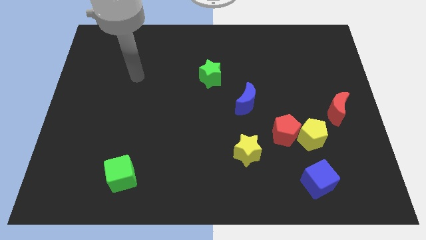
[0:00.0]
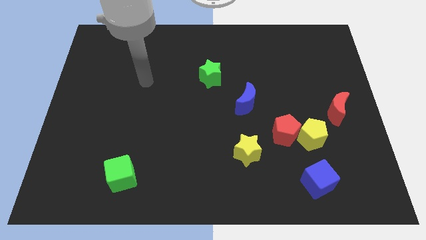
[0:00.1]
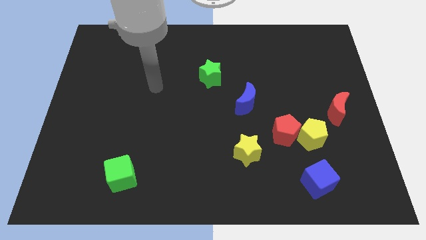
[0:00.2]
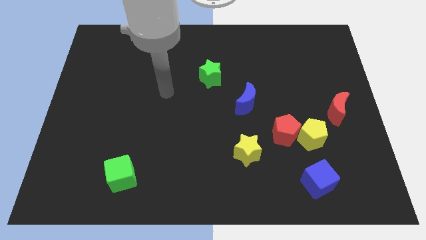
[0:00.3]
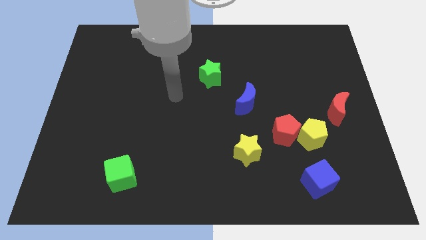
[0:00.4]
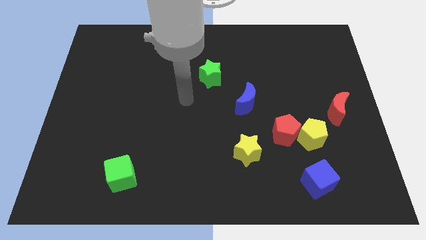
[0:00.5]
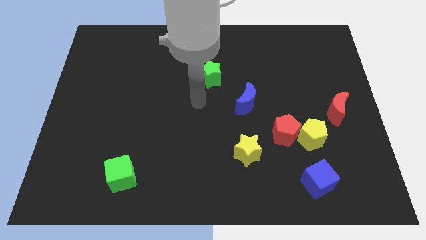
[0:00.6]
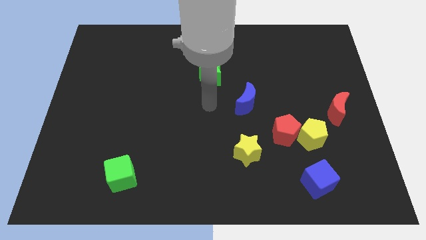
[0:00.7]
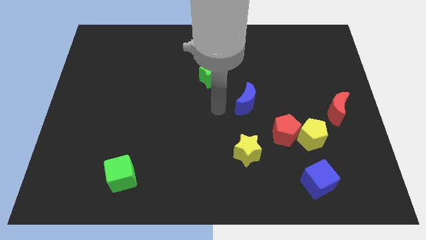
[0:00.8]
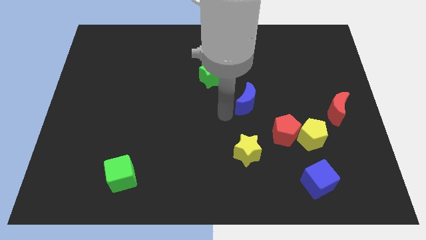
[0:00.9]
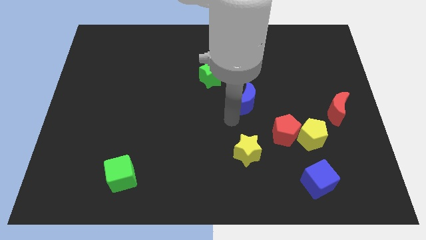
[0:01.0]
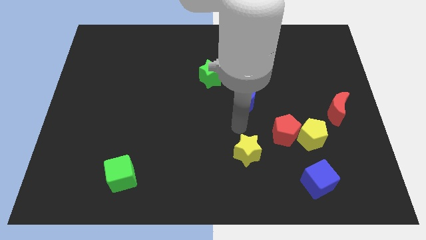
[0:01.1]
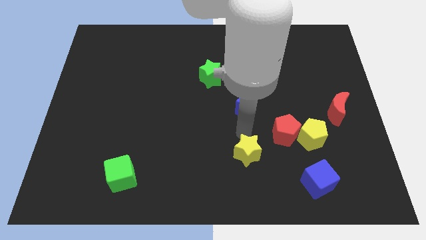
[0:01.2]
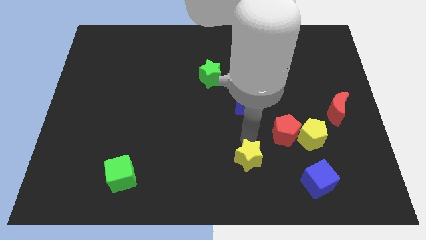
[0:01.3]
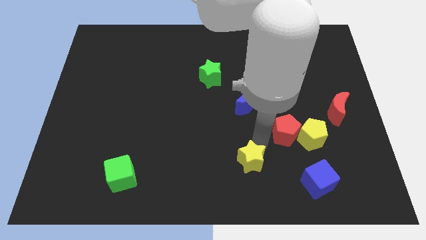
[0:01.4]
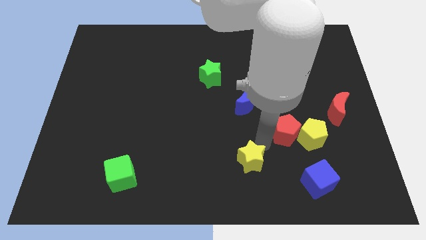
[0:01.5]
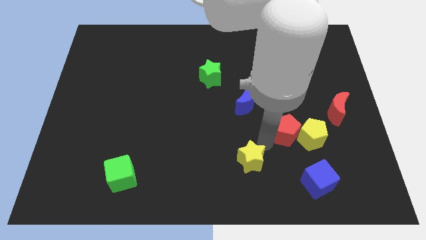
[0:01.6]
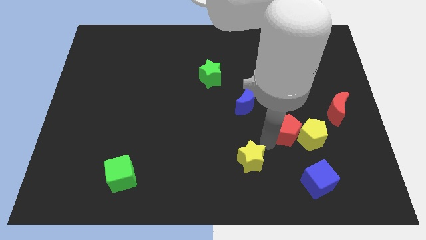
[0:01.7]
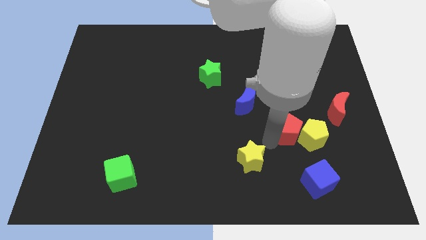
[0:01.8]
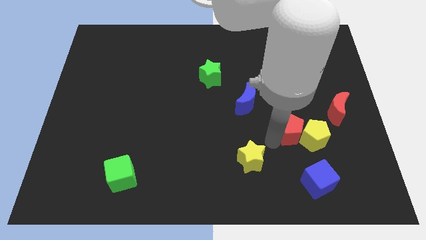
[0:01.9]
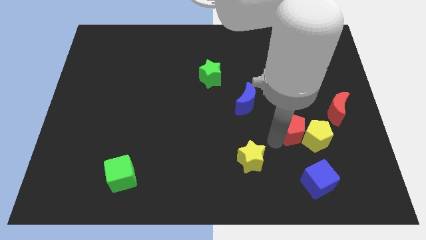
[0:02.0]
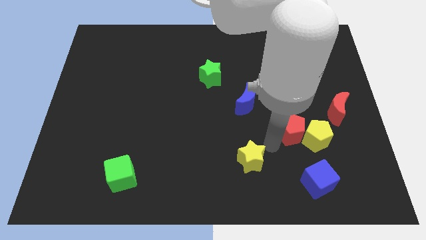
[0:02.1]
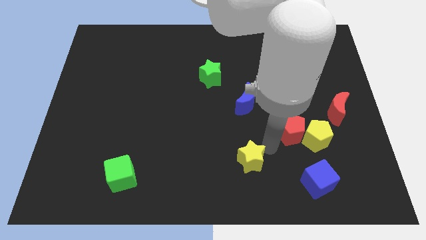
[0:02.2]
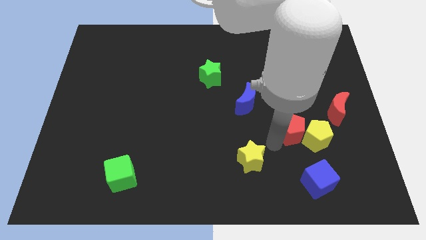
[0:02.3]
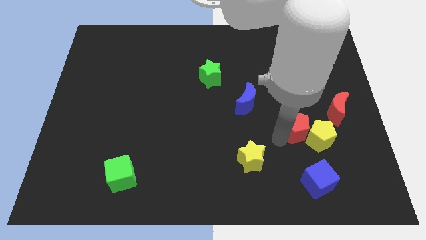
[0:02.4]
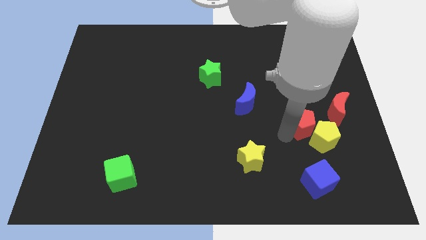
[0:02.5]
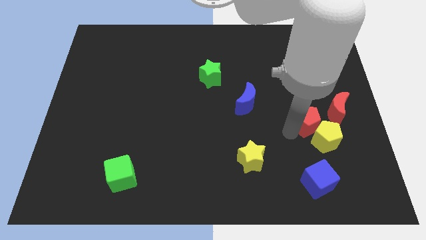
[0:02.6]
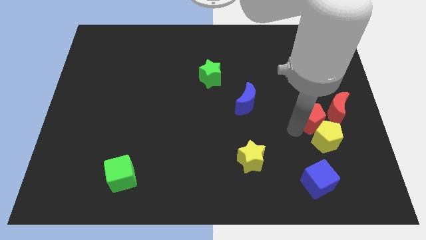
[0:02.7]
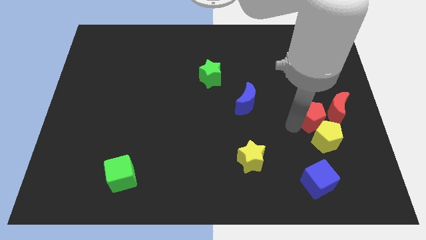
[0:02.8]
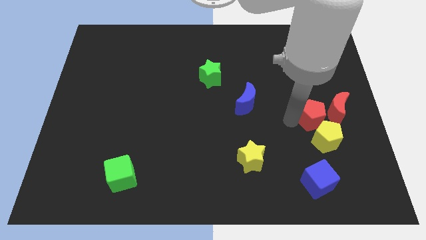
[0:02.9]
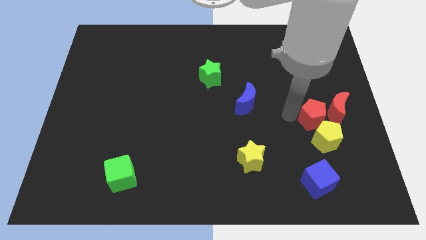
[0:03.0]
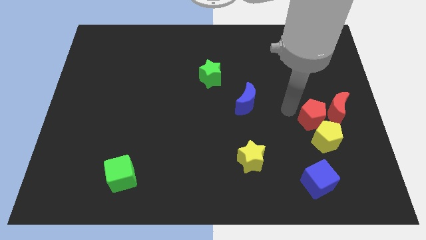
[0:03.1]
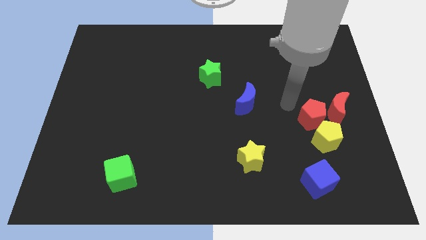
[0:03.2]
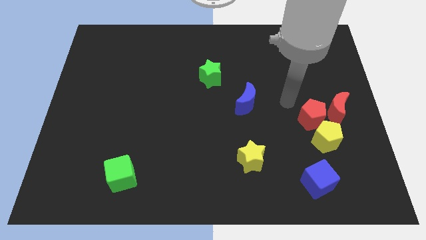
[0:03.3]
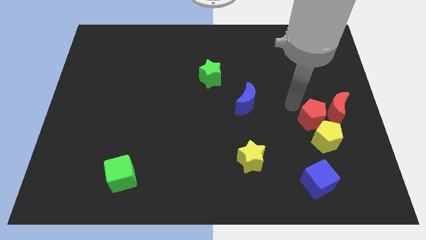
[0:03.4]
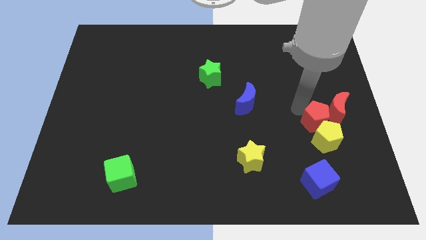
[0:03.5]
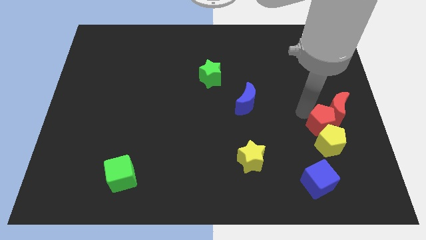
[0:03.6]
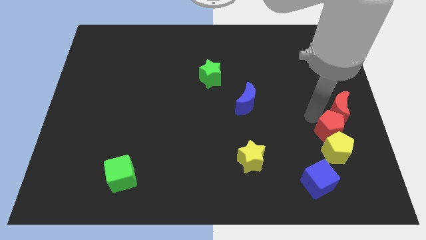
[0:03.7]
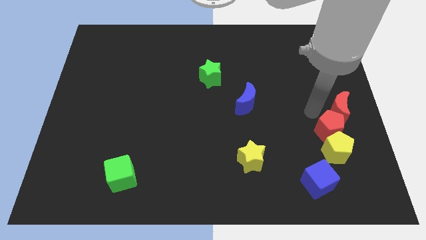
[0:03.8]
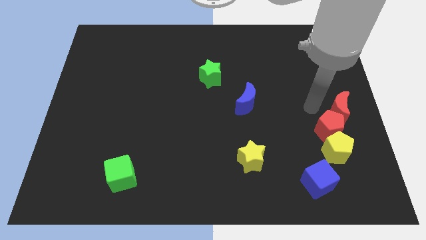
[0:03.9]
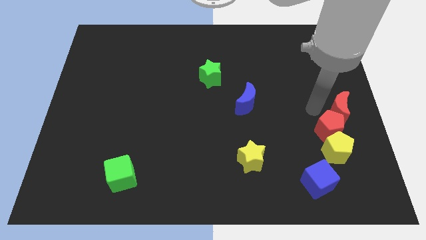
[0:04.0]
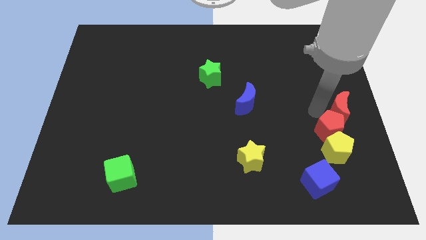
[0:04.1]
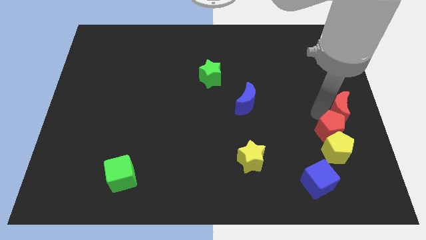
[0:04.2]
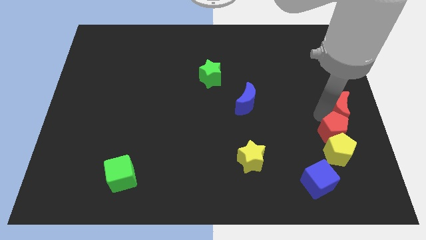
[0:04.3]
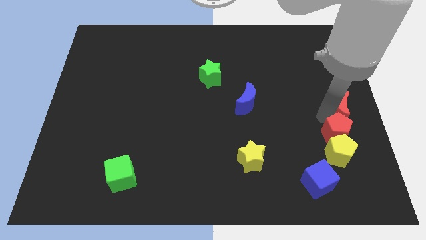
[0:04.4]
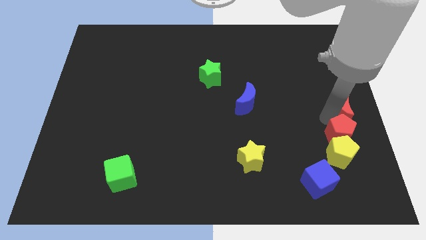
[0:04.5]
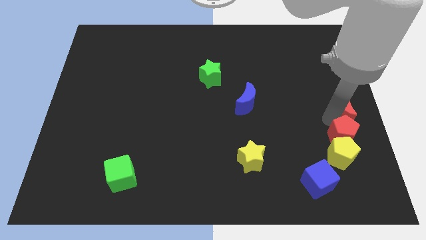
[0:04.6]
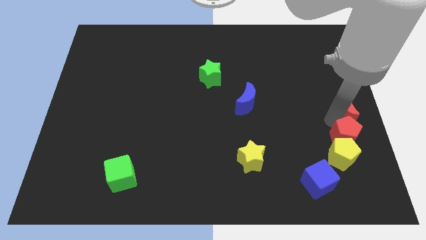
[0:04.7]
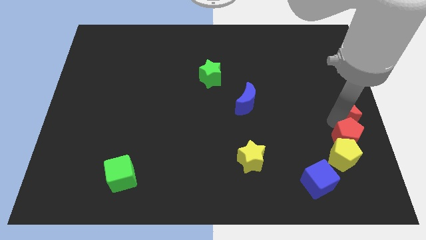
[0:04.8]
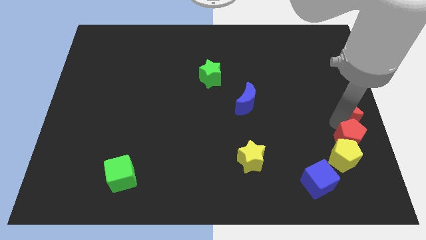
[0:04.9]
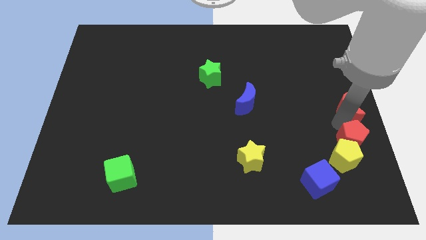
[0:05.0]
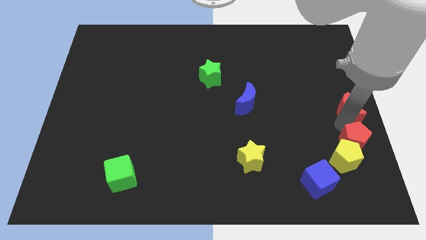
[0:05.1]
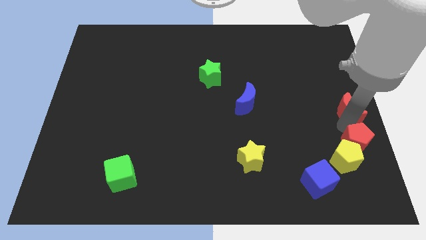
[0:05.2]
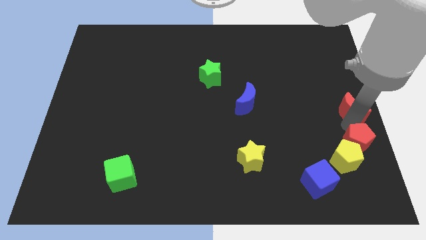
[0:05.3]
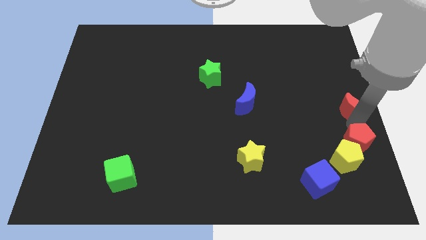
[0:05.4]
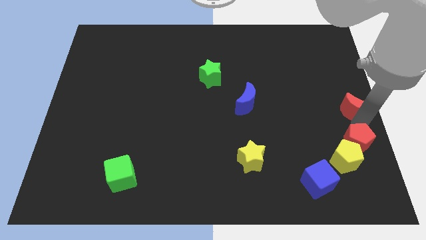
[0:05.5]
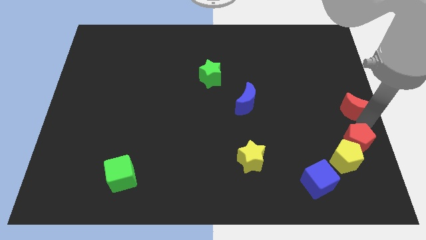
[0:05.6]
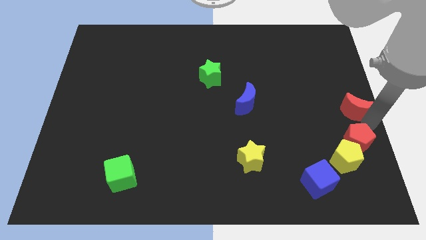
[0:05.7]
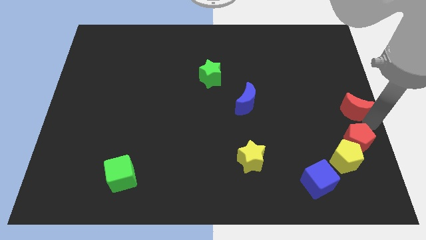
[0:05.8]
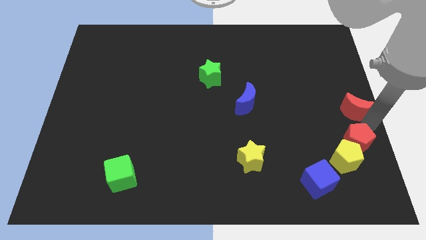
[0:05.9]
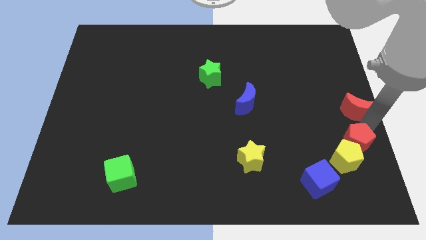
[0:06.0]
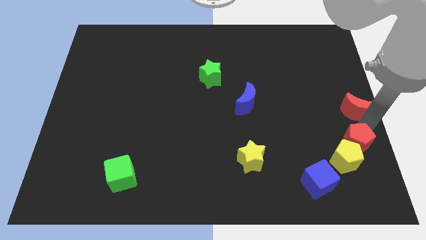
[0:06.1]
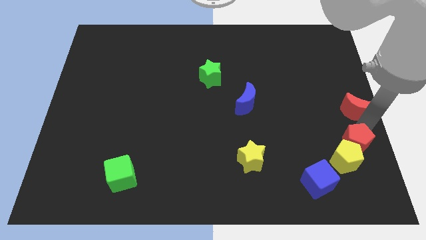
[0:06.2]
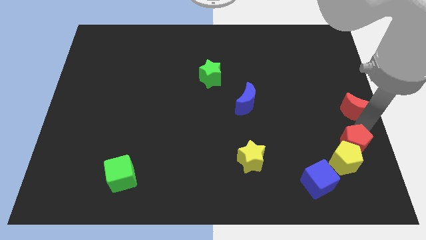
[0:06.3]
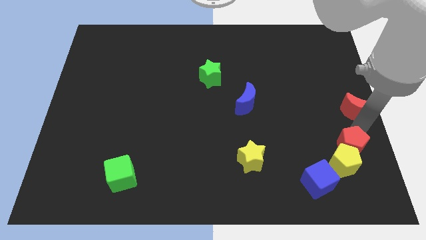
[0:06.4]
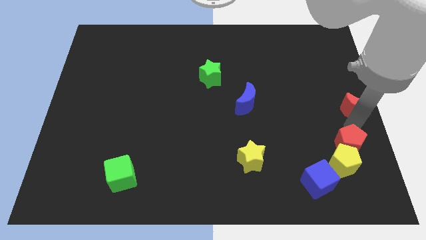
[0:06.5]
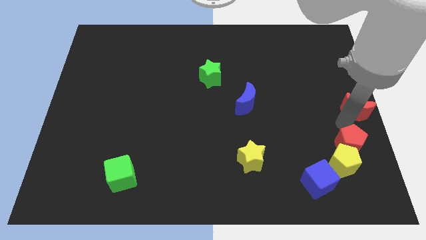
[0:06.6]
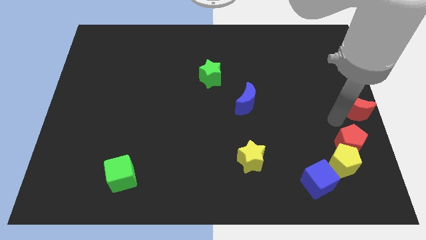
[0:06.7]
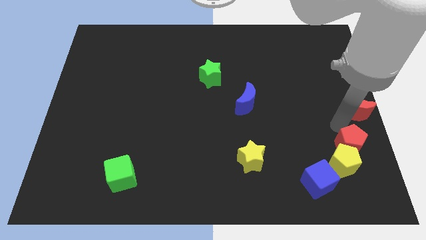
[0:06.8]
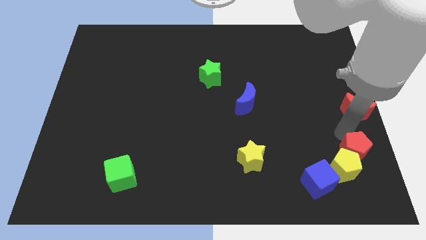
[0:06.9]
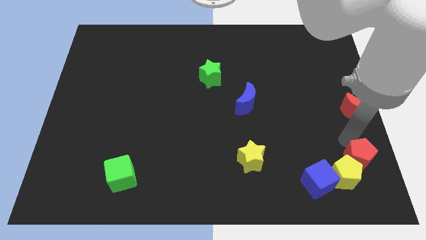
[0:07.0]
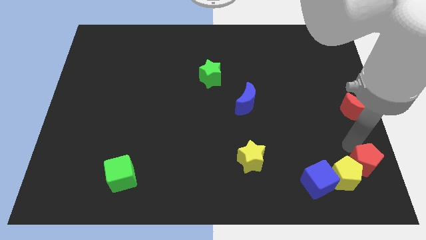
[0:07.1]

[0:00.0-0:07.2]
push the red pentagon to the bottom right of the board
